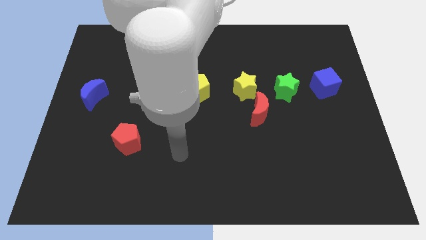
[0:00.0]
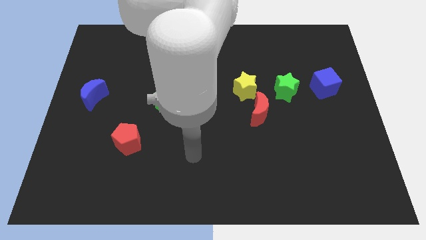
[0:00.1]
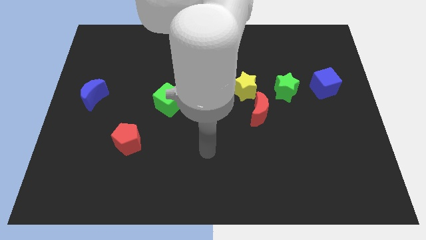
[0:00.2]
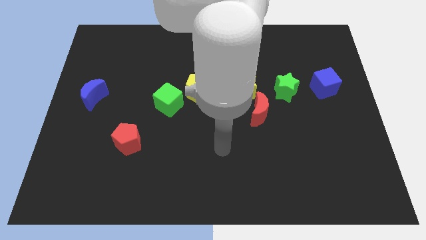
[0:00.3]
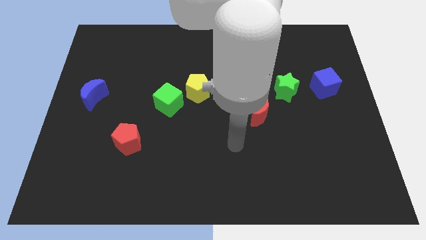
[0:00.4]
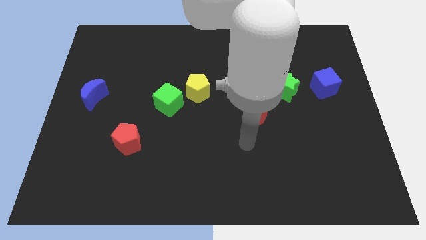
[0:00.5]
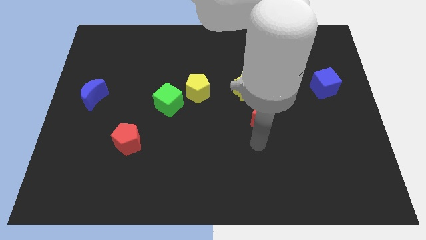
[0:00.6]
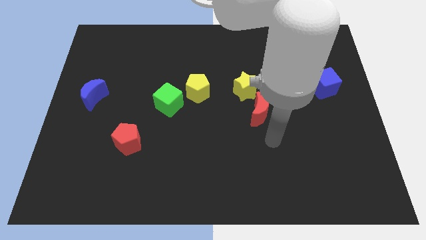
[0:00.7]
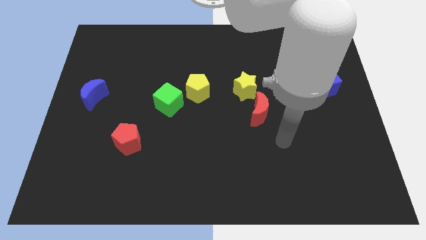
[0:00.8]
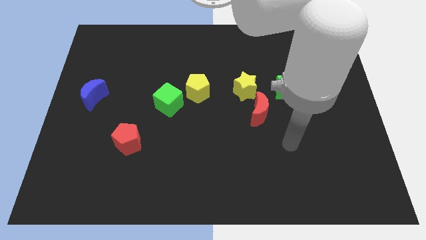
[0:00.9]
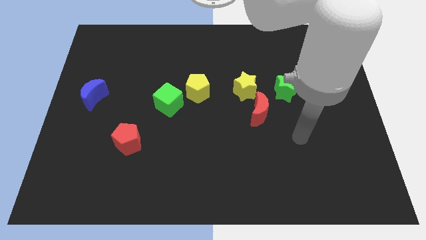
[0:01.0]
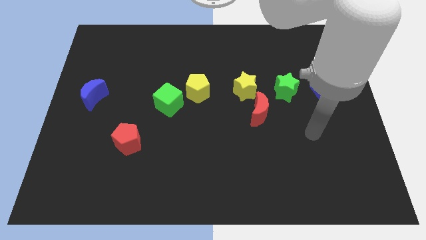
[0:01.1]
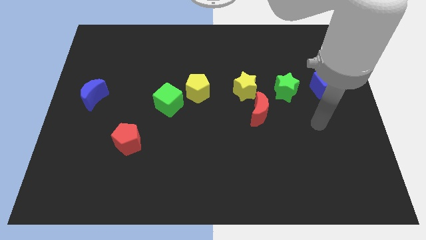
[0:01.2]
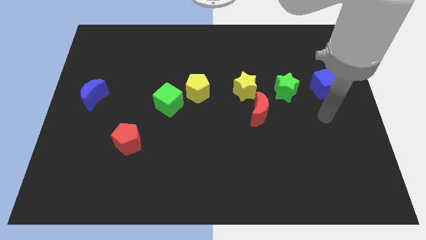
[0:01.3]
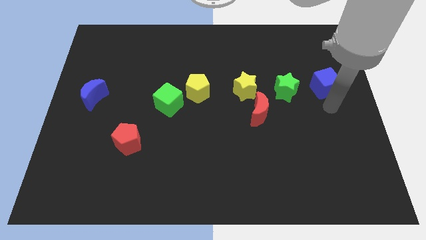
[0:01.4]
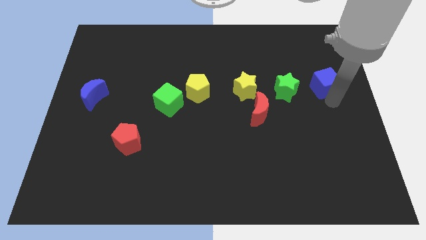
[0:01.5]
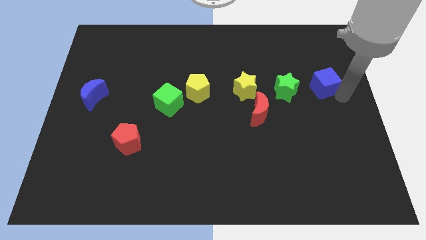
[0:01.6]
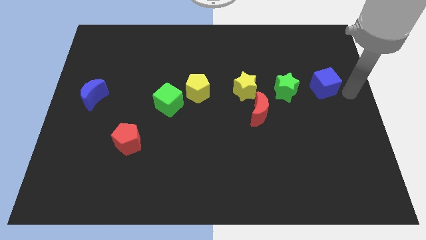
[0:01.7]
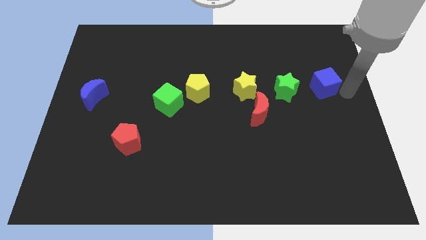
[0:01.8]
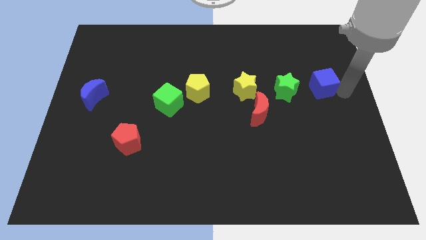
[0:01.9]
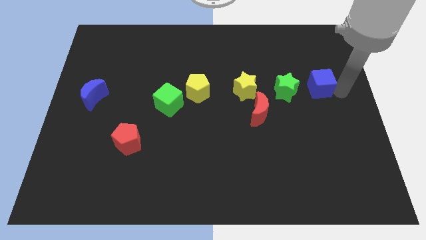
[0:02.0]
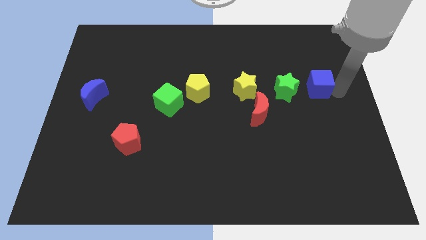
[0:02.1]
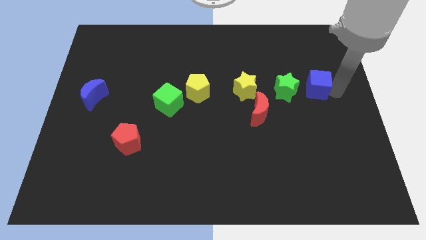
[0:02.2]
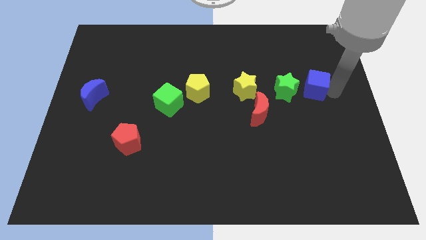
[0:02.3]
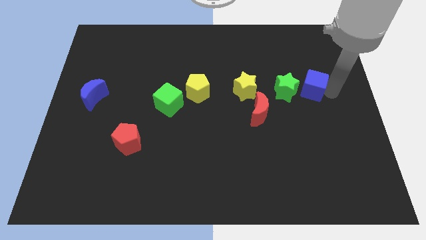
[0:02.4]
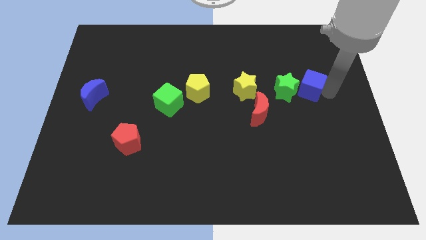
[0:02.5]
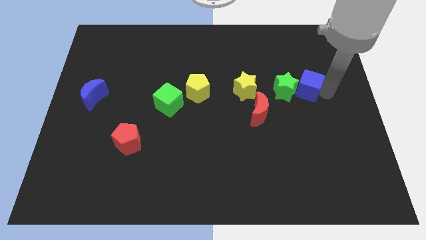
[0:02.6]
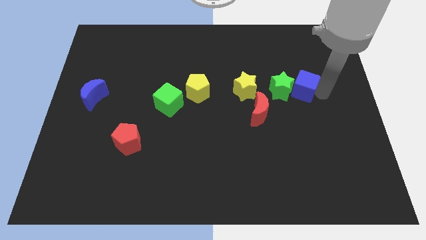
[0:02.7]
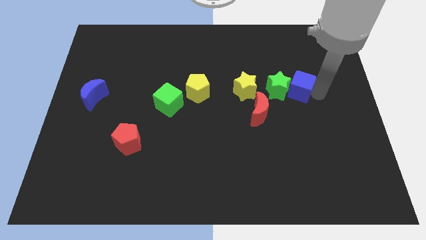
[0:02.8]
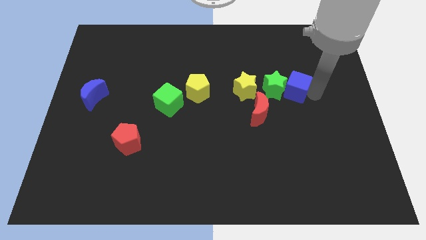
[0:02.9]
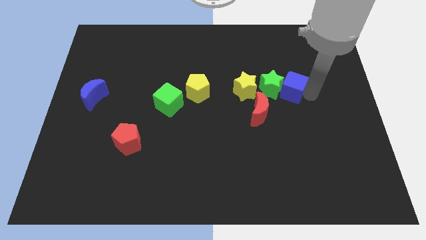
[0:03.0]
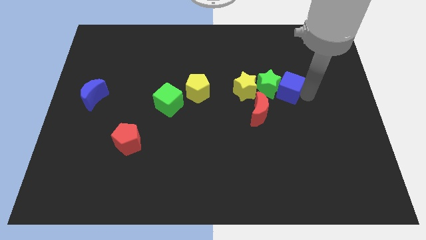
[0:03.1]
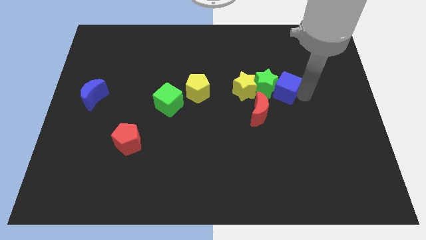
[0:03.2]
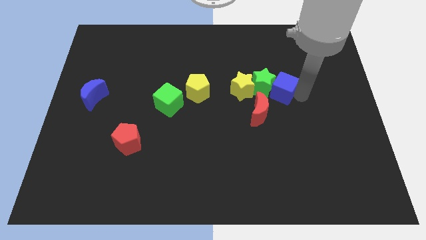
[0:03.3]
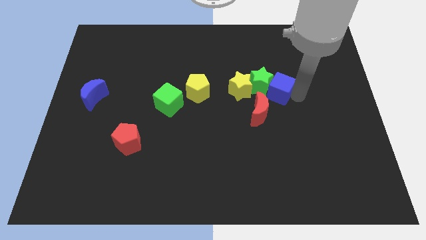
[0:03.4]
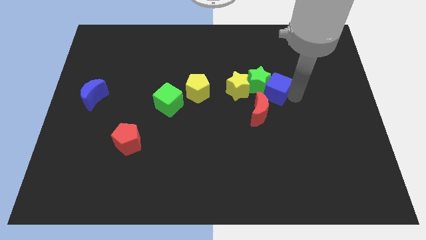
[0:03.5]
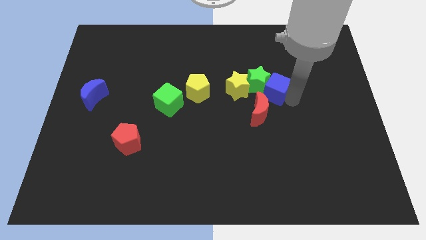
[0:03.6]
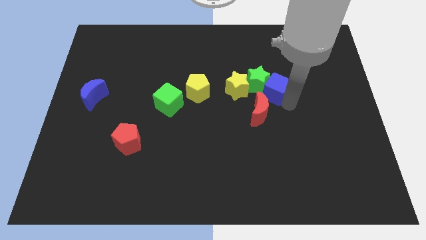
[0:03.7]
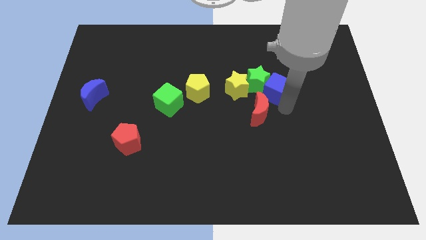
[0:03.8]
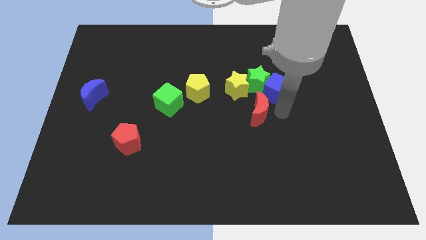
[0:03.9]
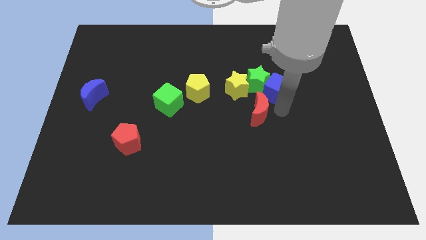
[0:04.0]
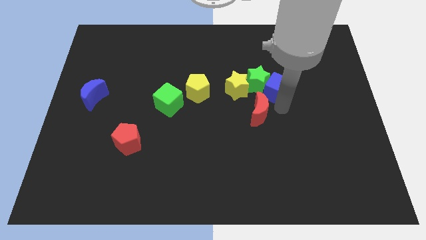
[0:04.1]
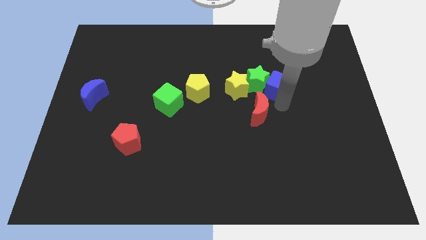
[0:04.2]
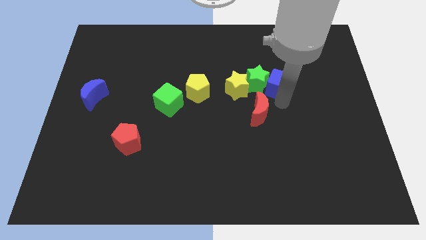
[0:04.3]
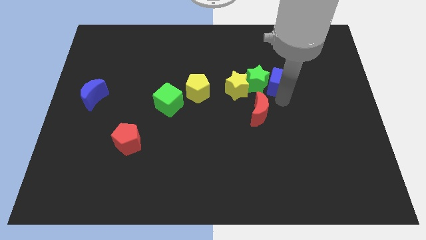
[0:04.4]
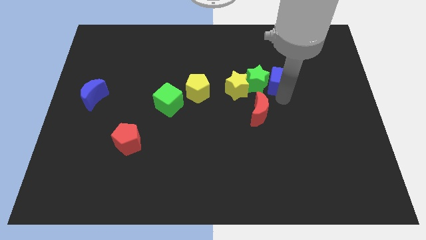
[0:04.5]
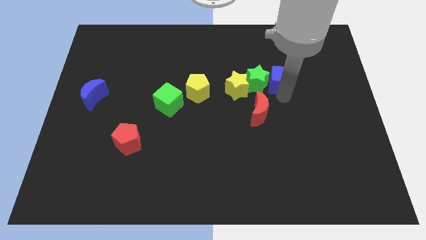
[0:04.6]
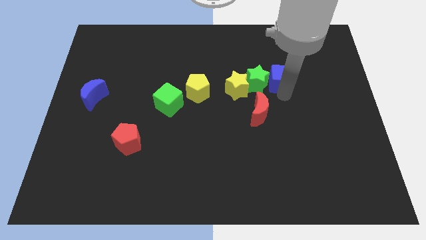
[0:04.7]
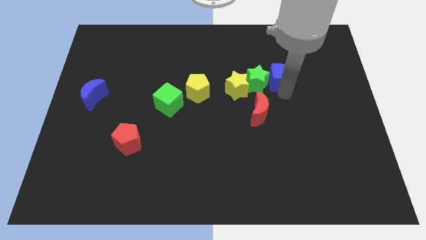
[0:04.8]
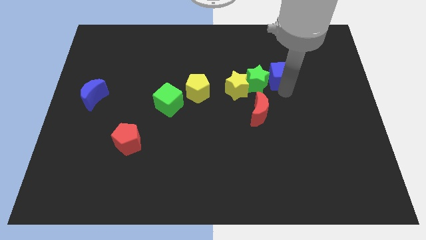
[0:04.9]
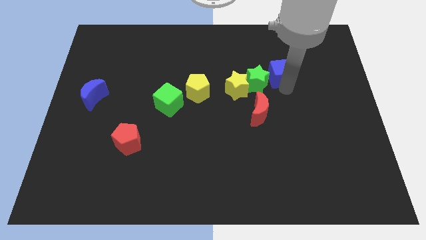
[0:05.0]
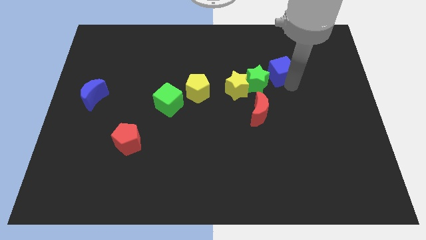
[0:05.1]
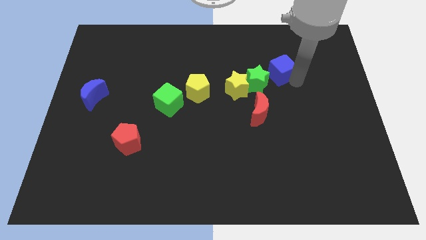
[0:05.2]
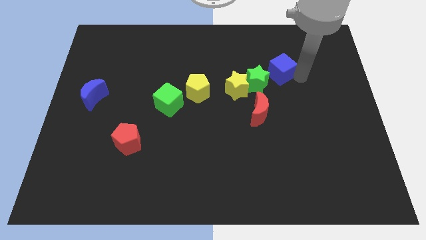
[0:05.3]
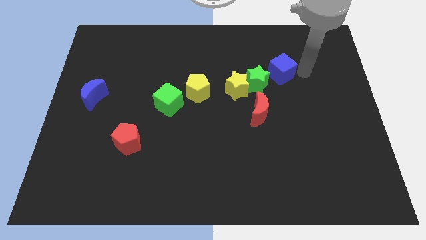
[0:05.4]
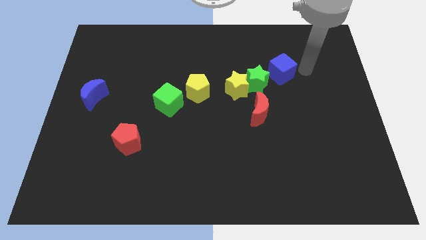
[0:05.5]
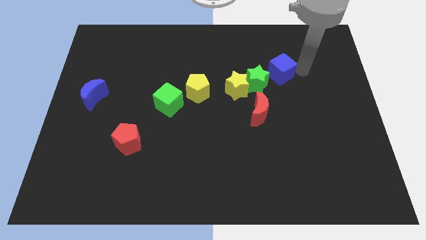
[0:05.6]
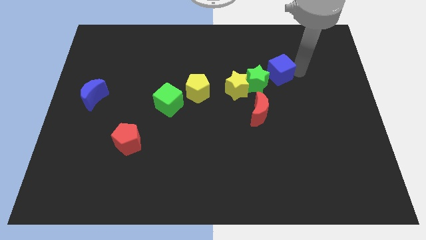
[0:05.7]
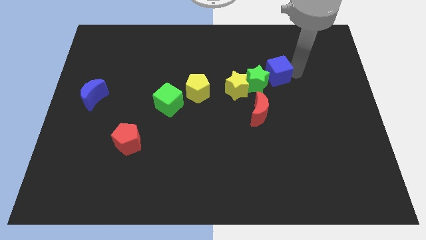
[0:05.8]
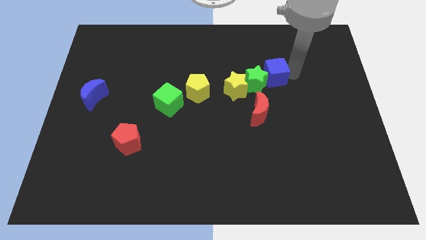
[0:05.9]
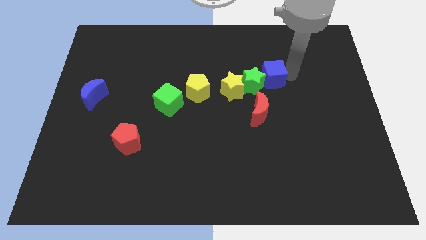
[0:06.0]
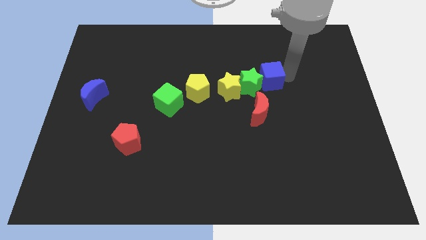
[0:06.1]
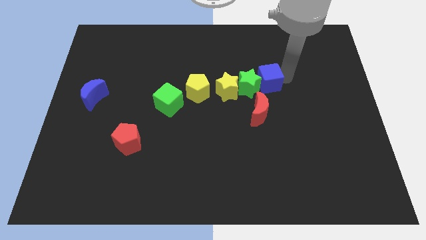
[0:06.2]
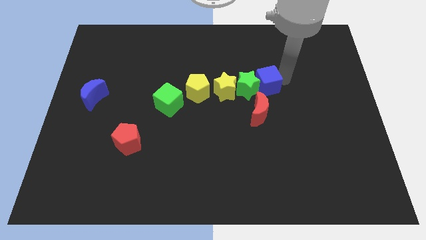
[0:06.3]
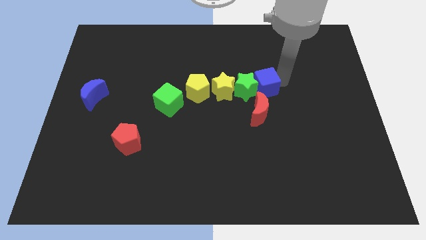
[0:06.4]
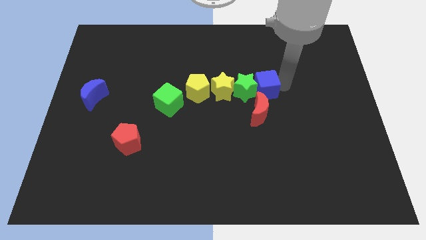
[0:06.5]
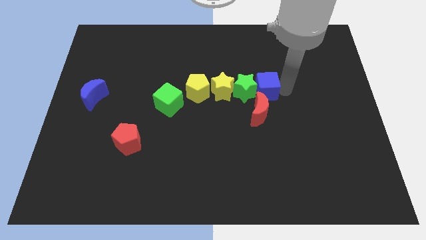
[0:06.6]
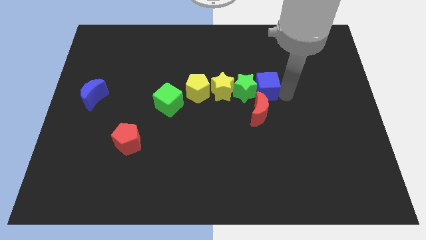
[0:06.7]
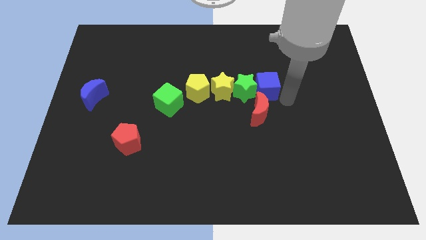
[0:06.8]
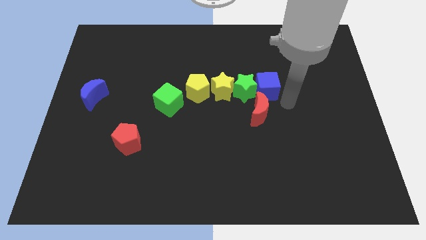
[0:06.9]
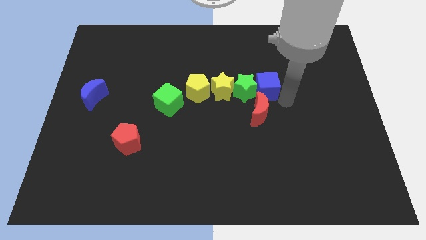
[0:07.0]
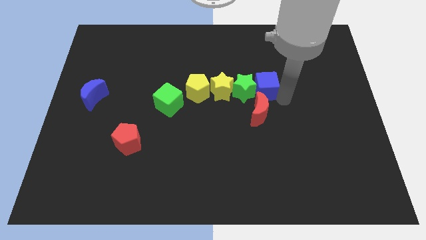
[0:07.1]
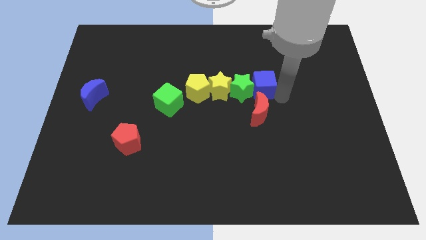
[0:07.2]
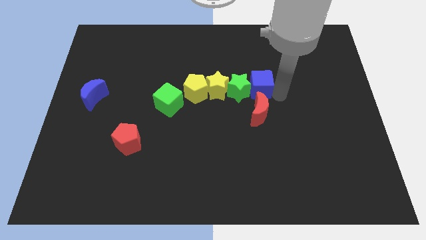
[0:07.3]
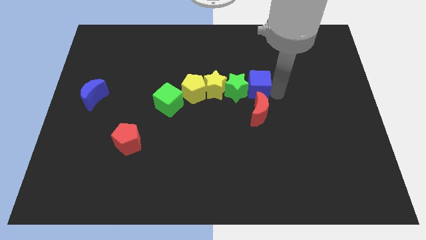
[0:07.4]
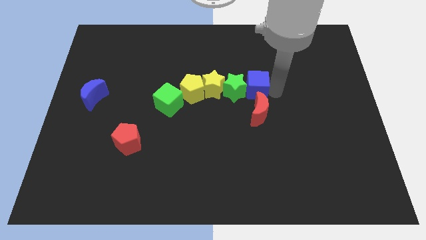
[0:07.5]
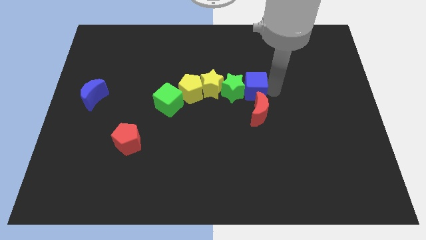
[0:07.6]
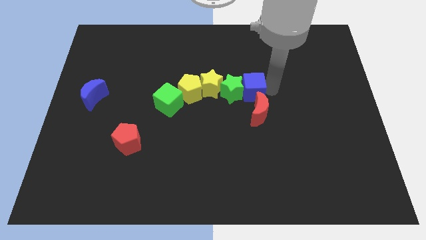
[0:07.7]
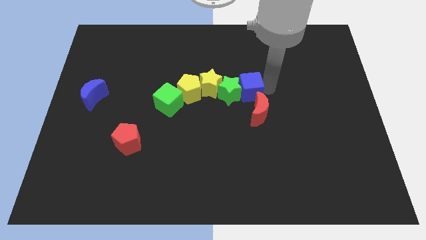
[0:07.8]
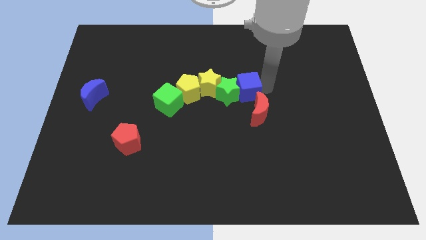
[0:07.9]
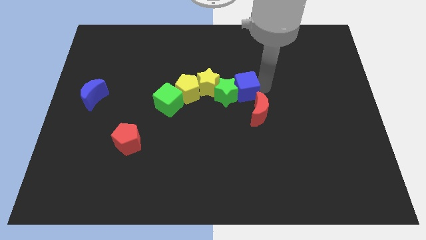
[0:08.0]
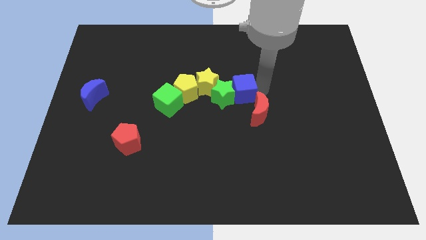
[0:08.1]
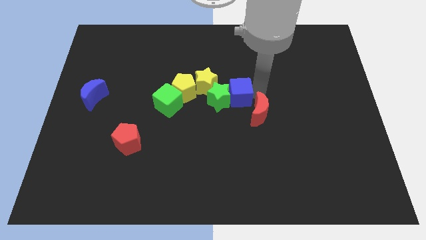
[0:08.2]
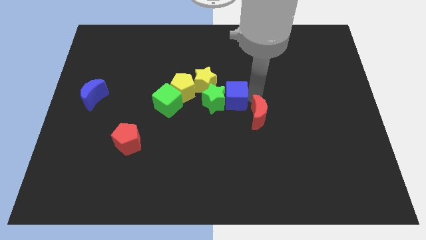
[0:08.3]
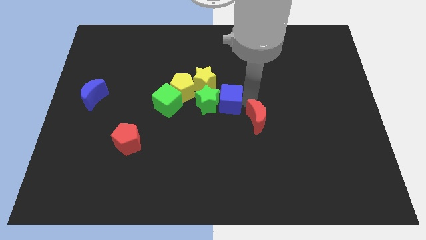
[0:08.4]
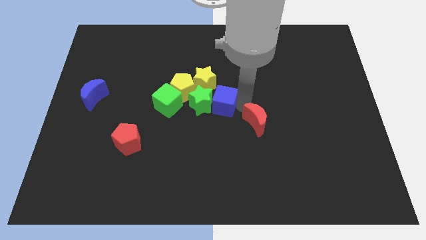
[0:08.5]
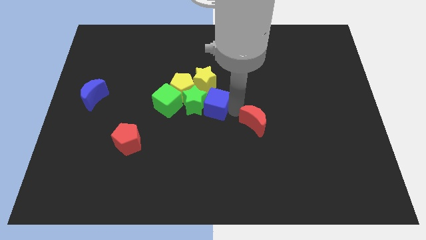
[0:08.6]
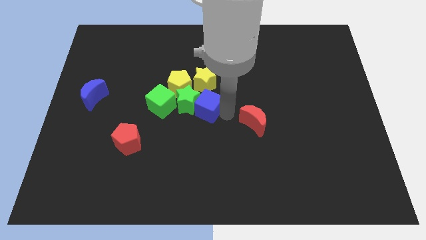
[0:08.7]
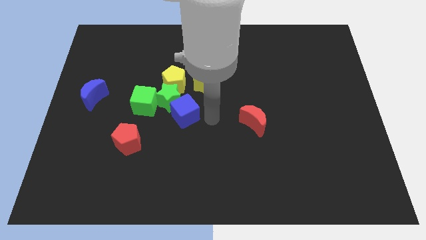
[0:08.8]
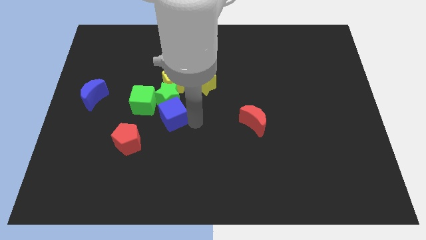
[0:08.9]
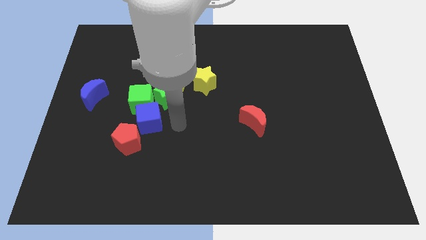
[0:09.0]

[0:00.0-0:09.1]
slide the blue cube towards the green cube
